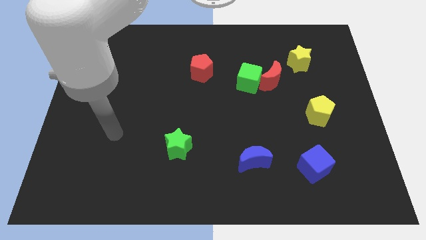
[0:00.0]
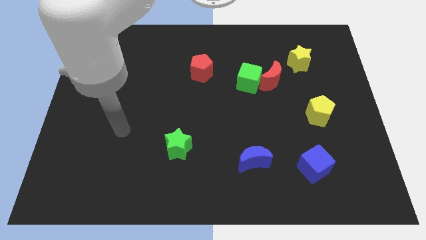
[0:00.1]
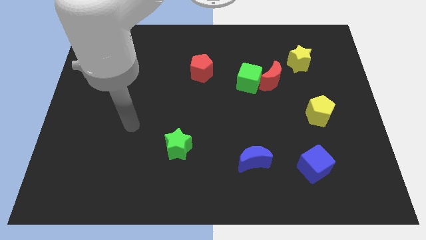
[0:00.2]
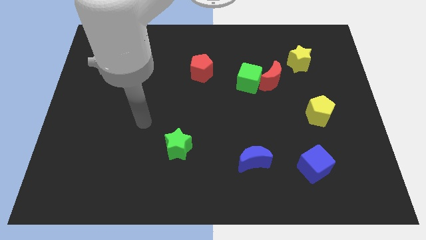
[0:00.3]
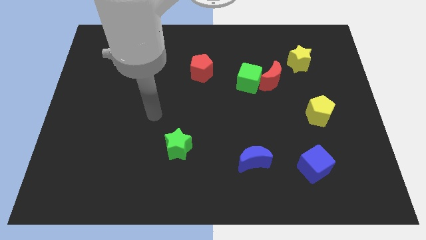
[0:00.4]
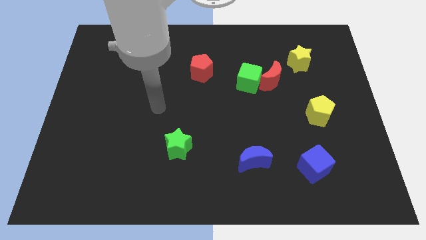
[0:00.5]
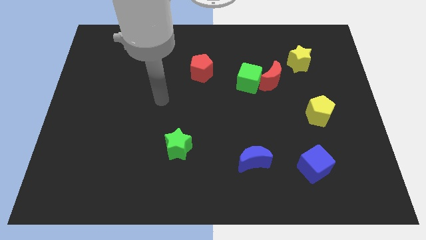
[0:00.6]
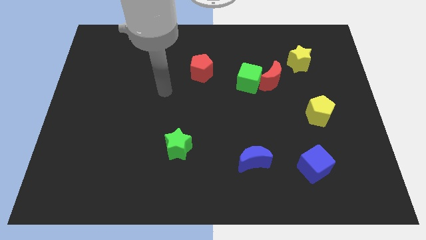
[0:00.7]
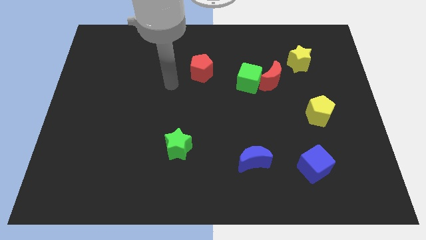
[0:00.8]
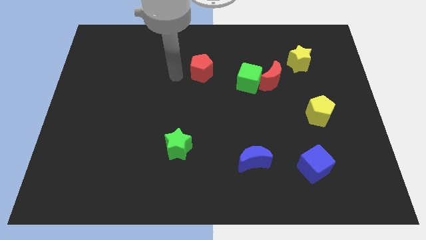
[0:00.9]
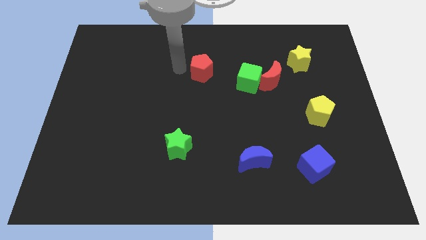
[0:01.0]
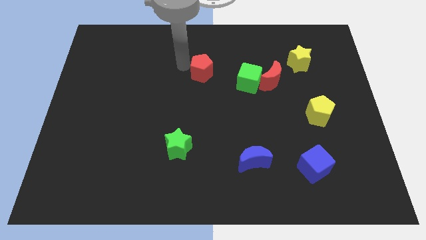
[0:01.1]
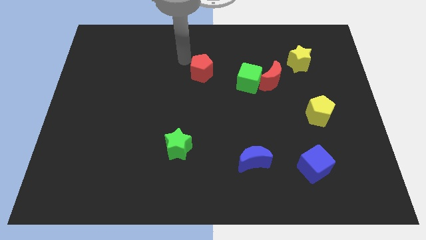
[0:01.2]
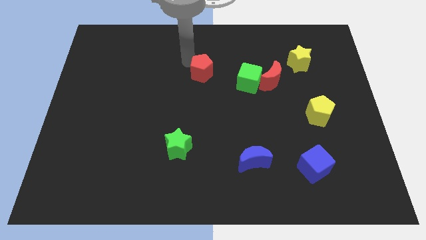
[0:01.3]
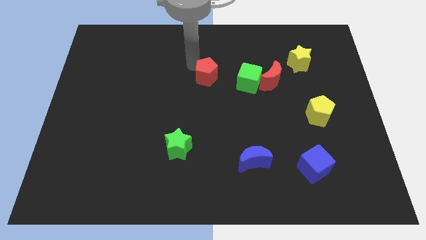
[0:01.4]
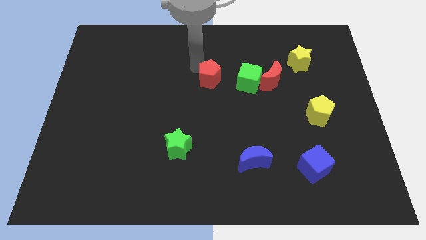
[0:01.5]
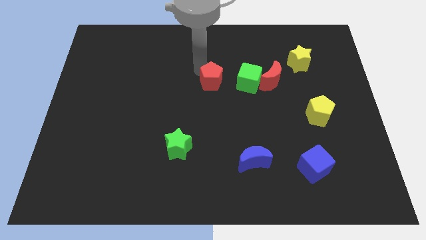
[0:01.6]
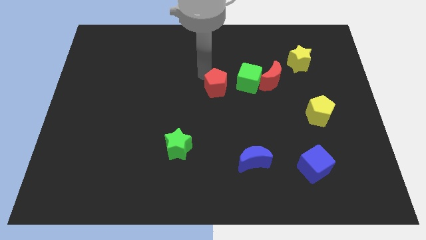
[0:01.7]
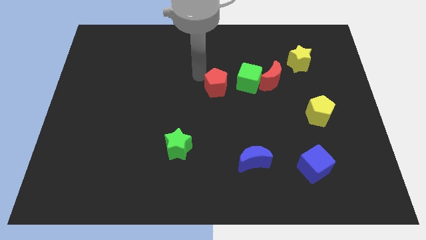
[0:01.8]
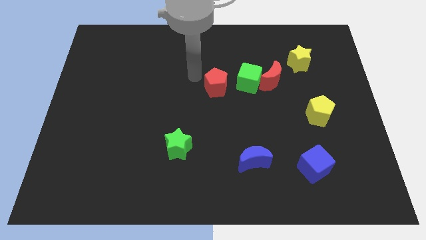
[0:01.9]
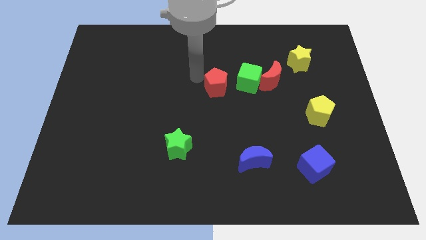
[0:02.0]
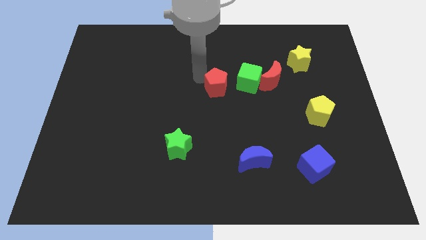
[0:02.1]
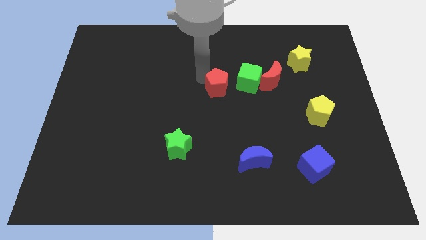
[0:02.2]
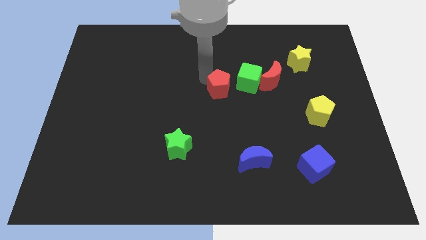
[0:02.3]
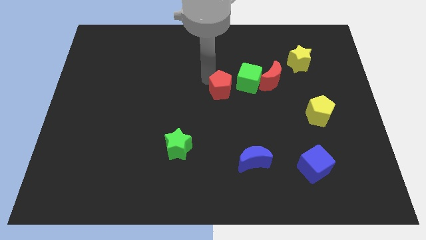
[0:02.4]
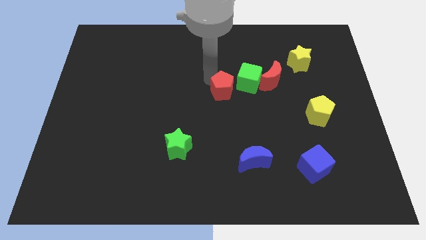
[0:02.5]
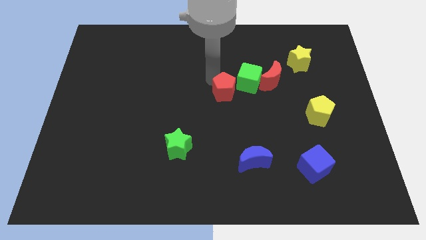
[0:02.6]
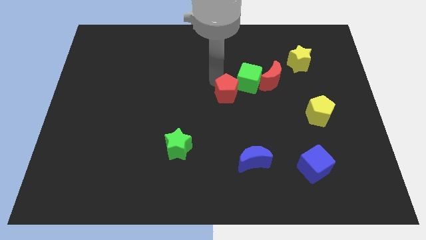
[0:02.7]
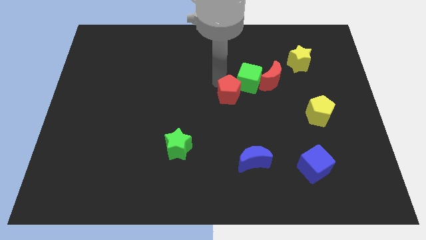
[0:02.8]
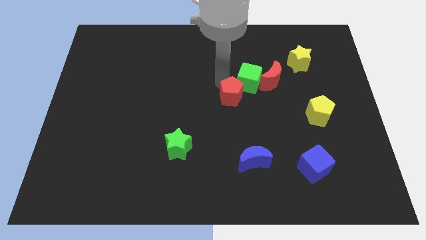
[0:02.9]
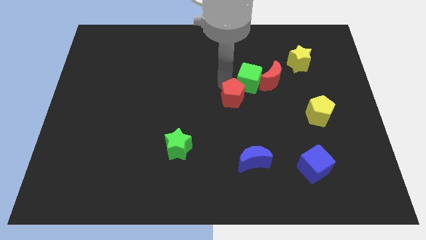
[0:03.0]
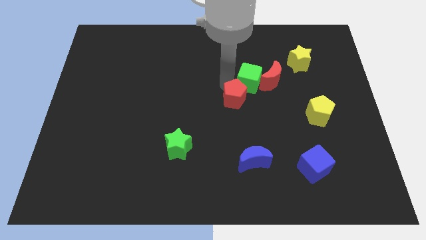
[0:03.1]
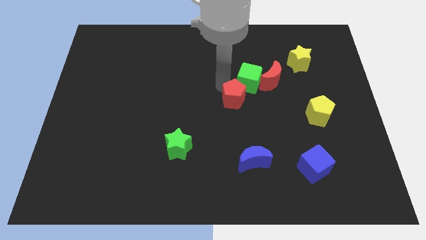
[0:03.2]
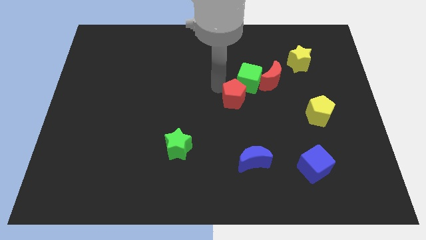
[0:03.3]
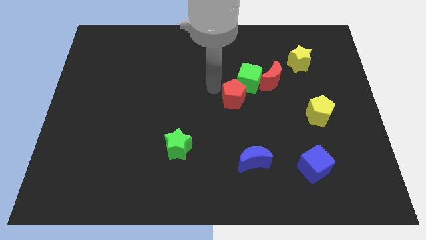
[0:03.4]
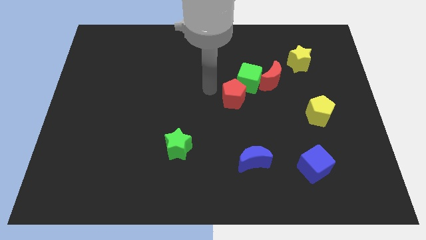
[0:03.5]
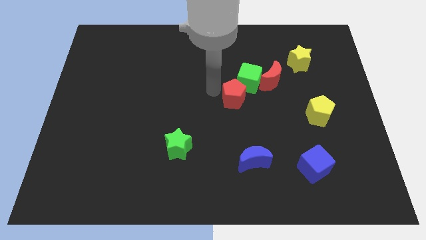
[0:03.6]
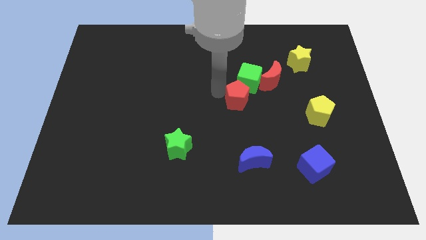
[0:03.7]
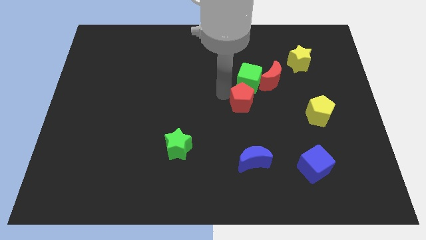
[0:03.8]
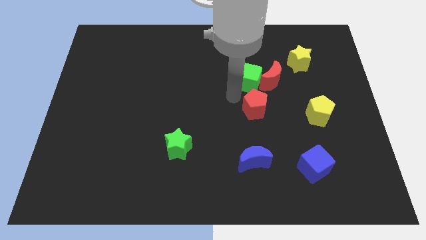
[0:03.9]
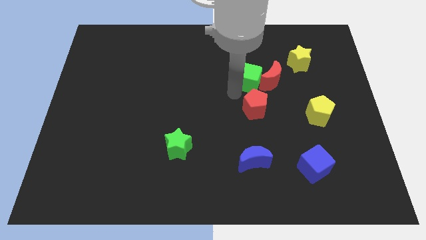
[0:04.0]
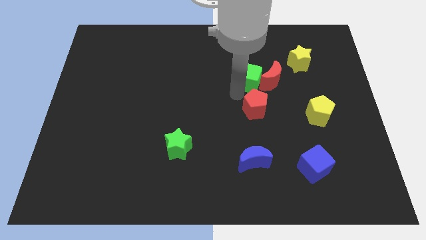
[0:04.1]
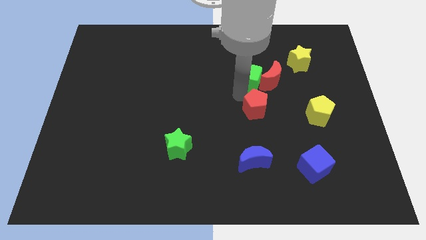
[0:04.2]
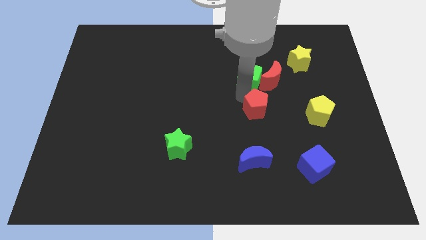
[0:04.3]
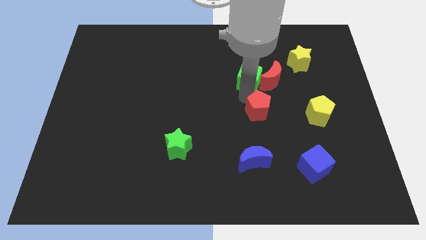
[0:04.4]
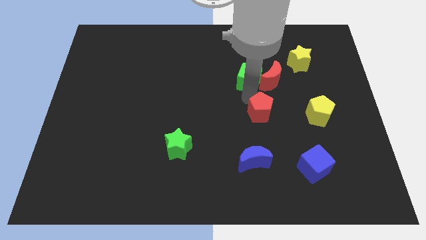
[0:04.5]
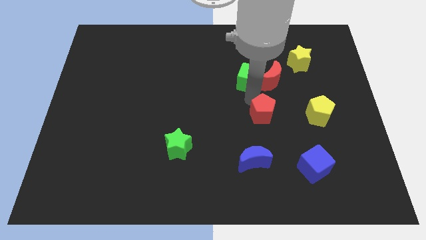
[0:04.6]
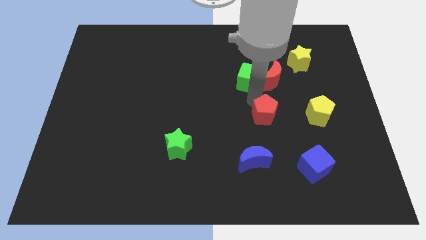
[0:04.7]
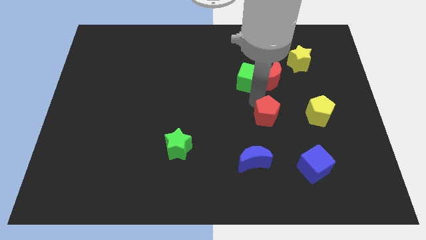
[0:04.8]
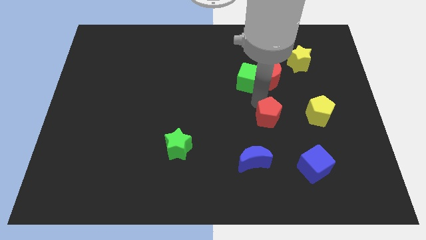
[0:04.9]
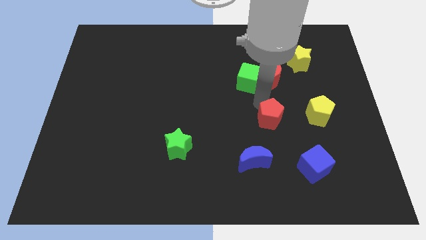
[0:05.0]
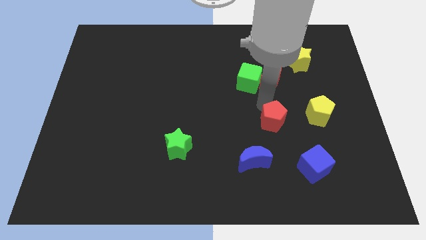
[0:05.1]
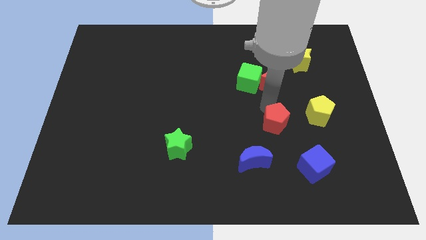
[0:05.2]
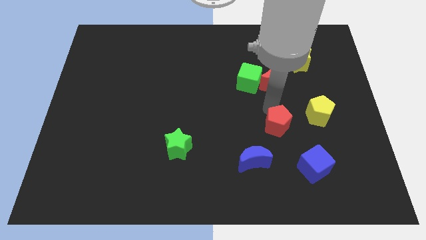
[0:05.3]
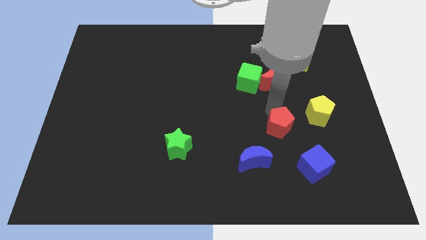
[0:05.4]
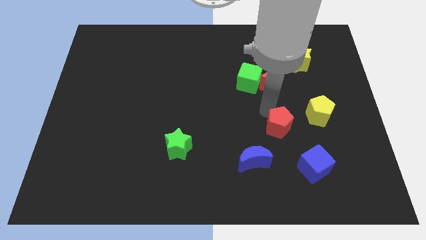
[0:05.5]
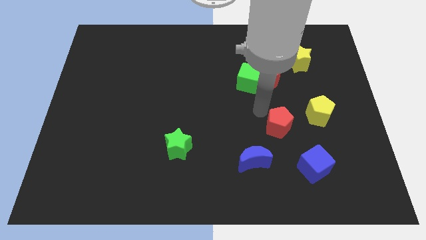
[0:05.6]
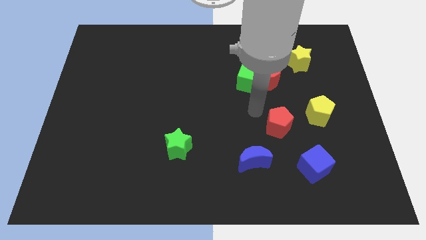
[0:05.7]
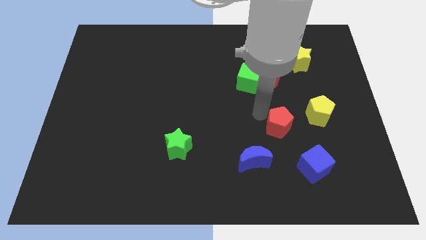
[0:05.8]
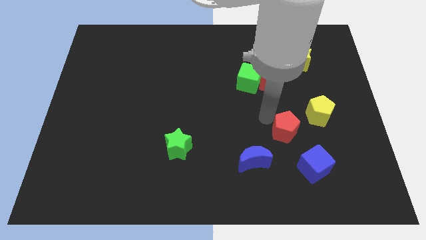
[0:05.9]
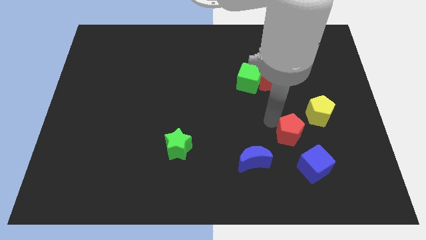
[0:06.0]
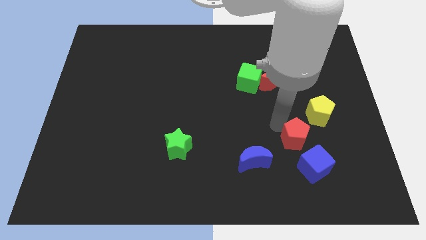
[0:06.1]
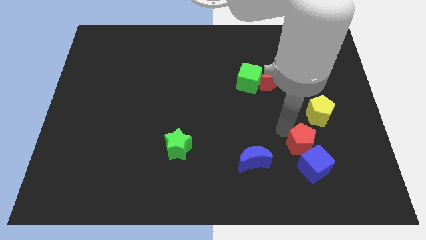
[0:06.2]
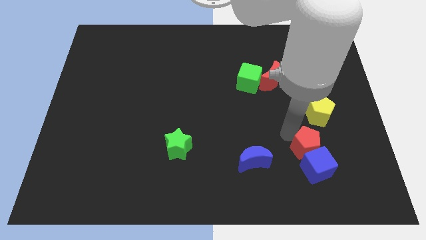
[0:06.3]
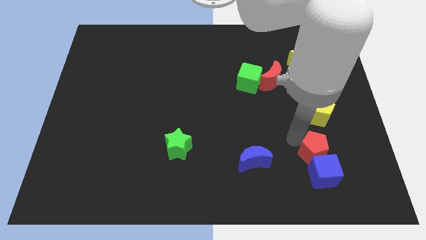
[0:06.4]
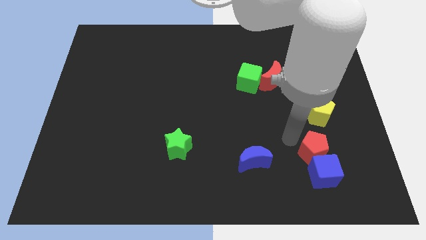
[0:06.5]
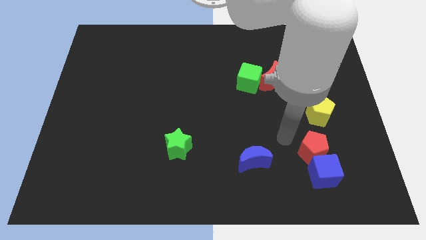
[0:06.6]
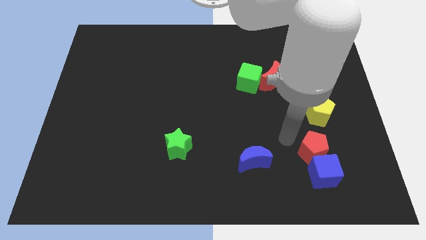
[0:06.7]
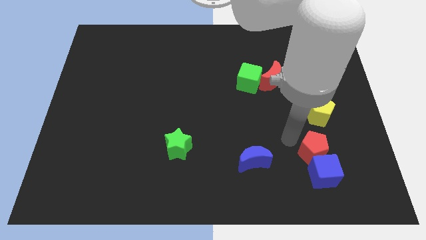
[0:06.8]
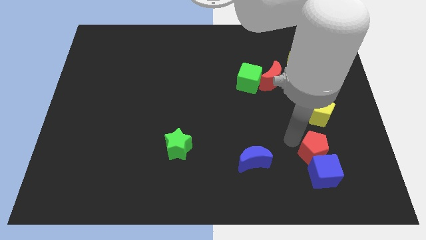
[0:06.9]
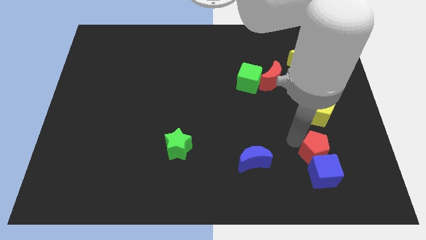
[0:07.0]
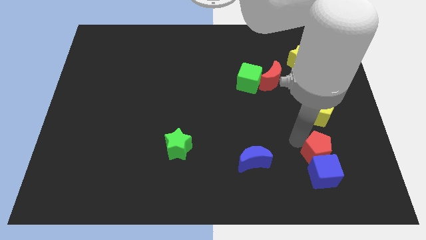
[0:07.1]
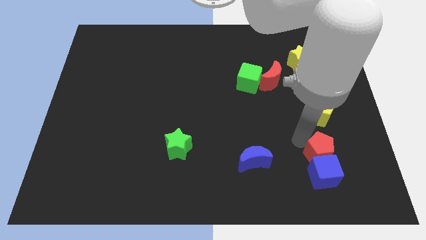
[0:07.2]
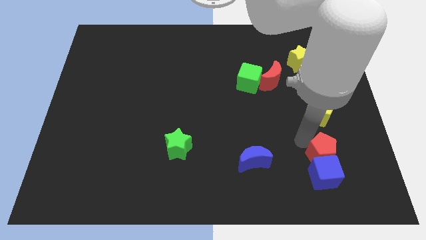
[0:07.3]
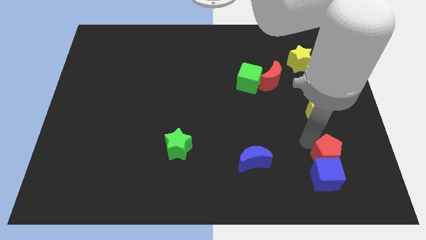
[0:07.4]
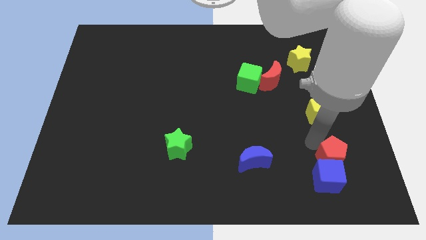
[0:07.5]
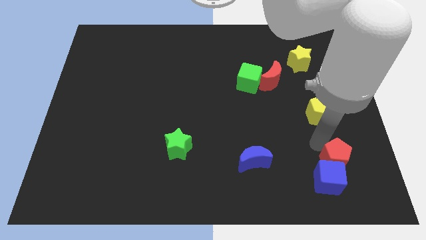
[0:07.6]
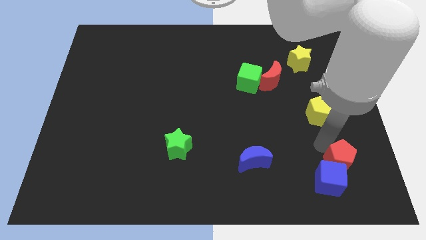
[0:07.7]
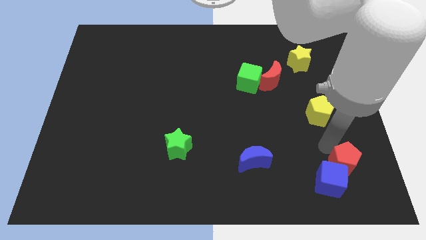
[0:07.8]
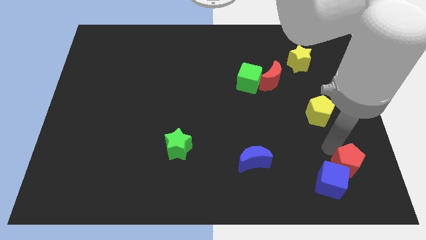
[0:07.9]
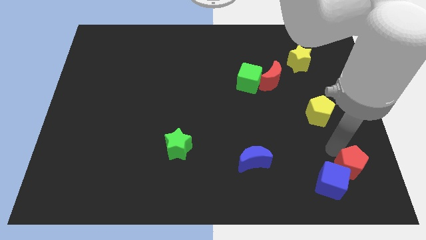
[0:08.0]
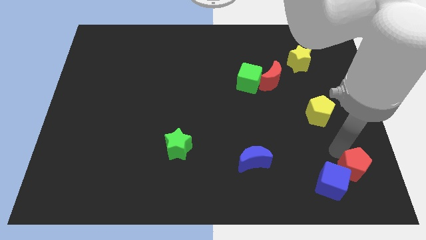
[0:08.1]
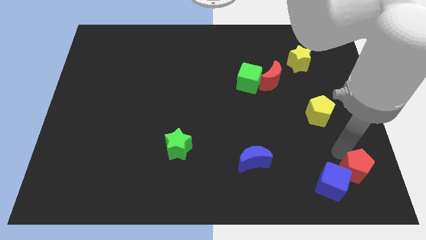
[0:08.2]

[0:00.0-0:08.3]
slide the red pentagon to the lower right corner
